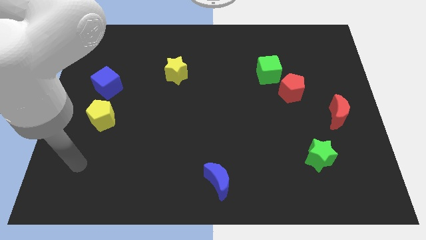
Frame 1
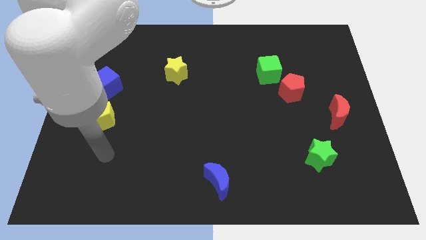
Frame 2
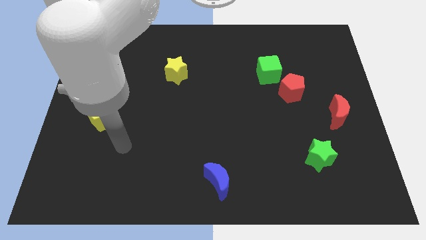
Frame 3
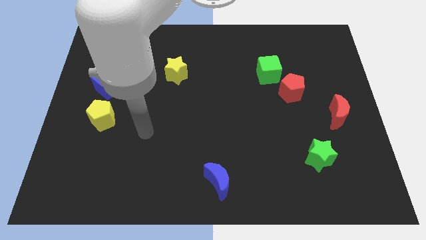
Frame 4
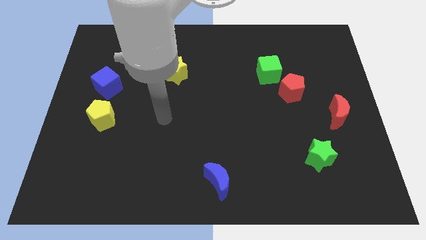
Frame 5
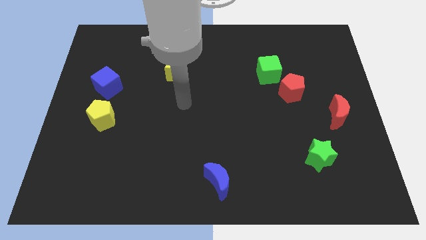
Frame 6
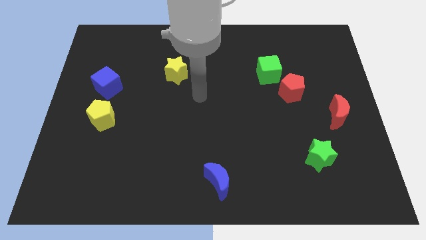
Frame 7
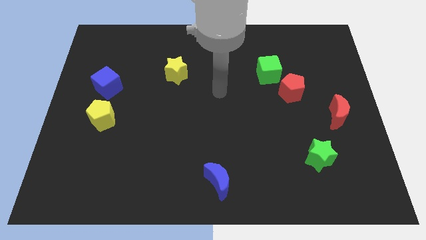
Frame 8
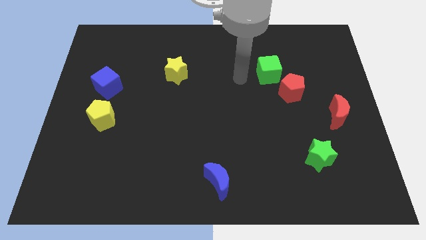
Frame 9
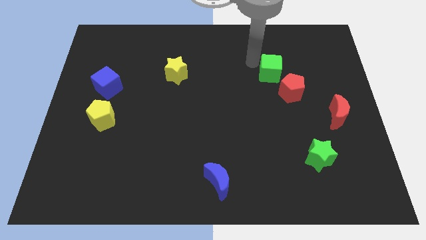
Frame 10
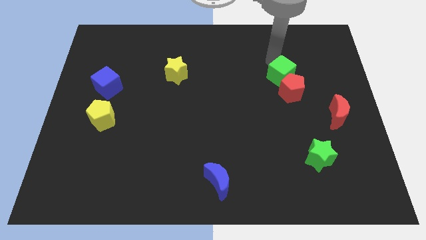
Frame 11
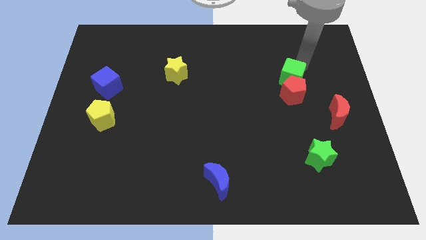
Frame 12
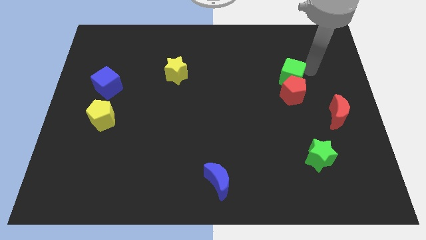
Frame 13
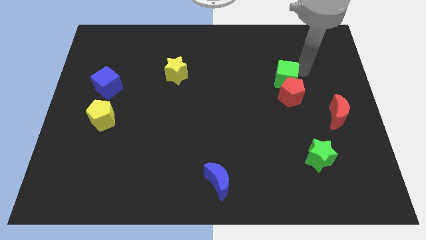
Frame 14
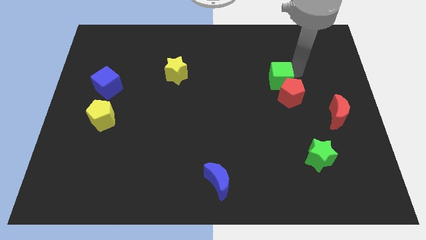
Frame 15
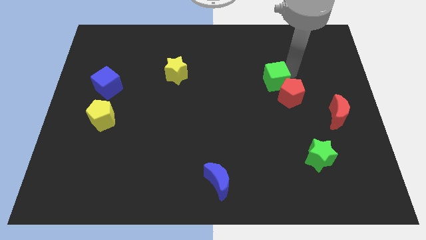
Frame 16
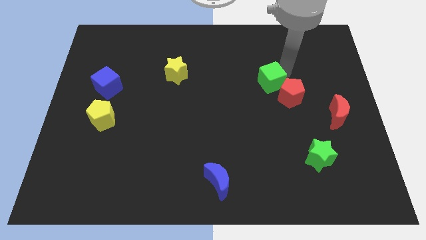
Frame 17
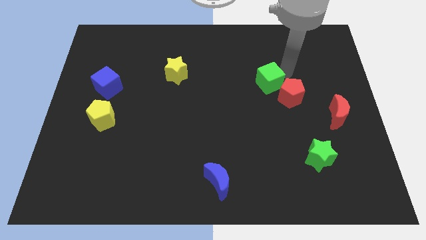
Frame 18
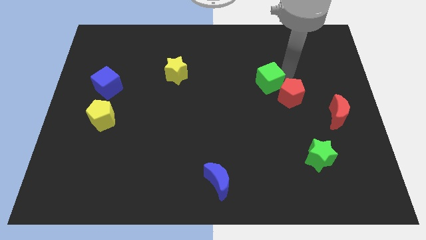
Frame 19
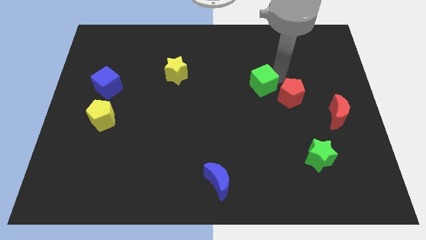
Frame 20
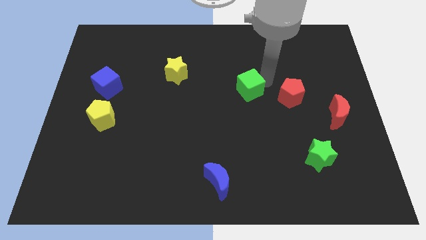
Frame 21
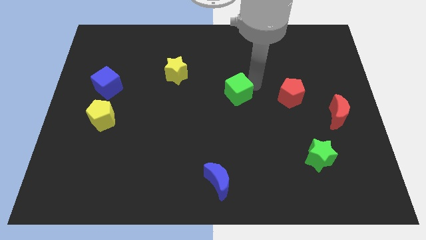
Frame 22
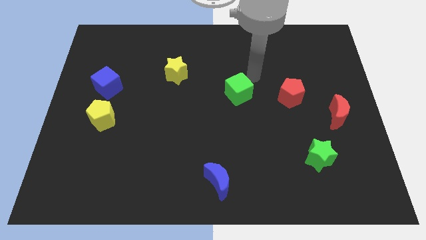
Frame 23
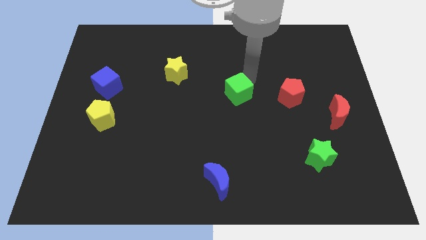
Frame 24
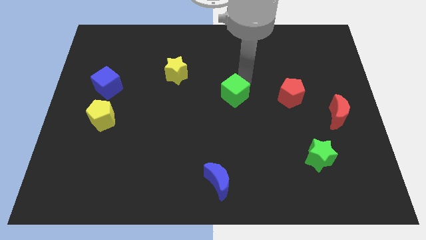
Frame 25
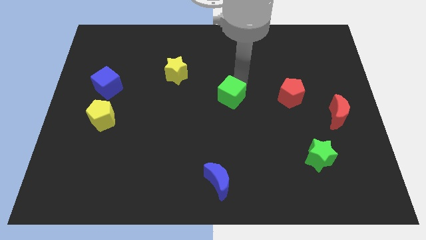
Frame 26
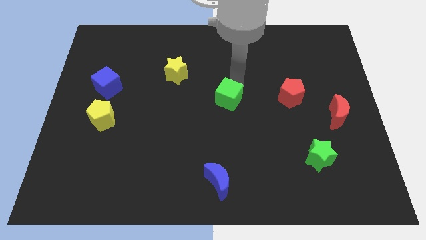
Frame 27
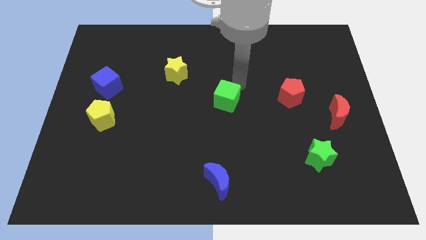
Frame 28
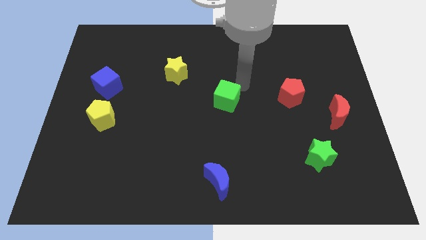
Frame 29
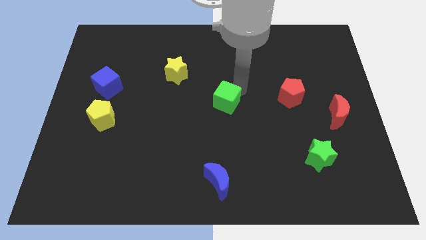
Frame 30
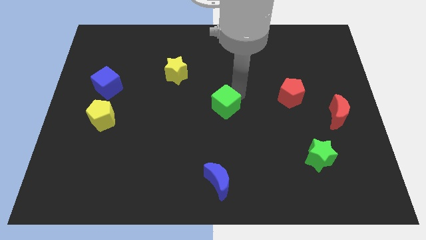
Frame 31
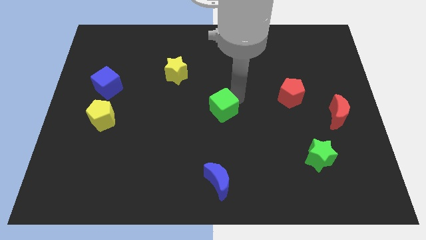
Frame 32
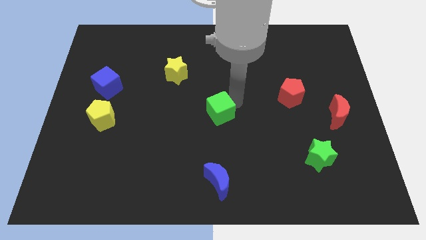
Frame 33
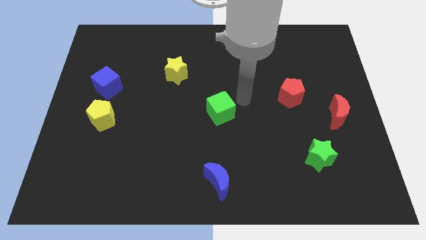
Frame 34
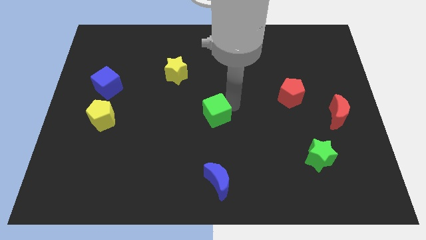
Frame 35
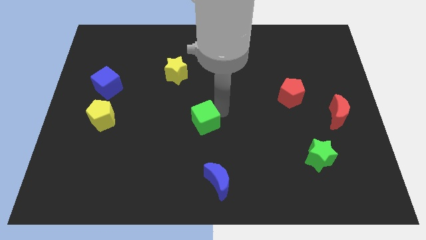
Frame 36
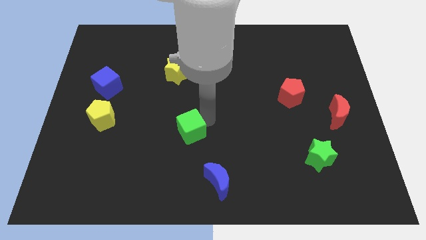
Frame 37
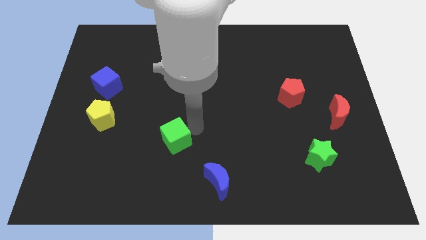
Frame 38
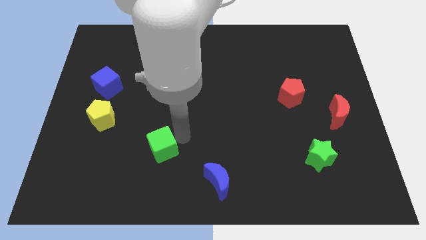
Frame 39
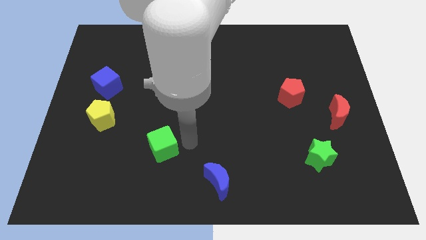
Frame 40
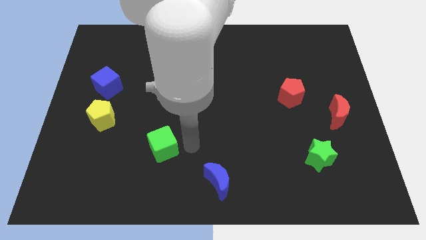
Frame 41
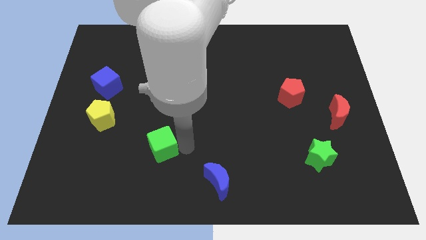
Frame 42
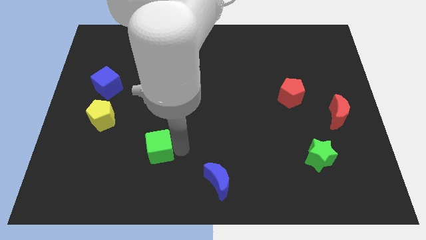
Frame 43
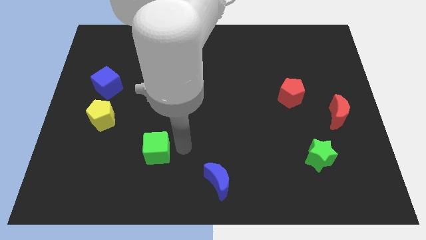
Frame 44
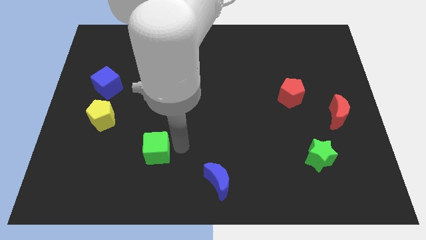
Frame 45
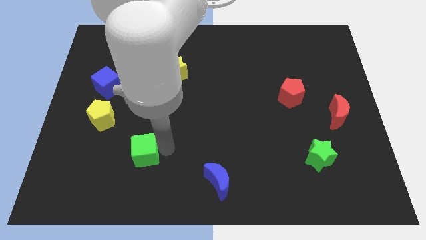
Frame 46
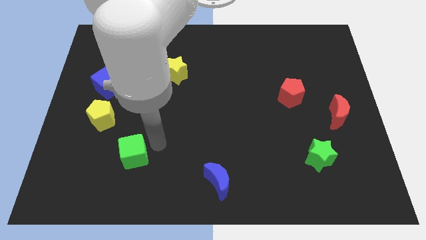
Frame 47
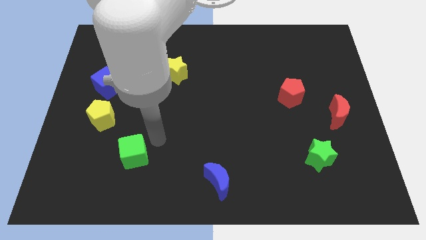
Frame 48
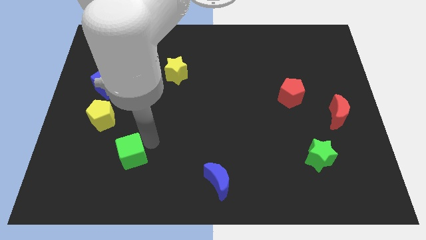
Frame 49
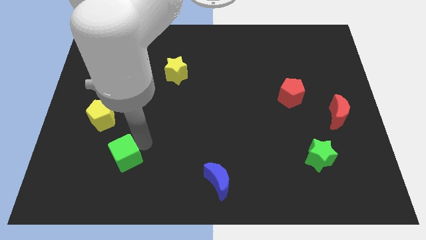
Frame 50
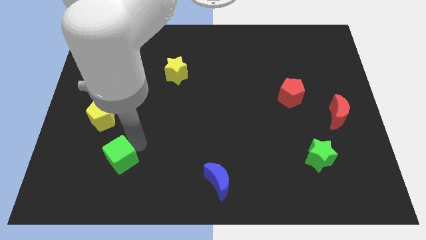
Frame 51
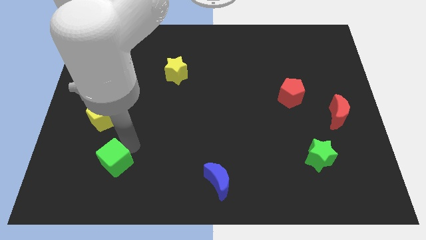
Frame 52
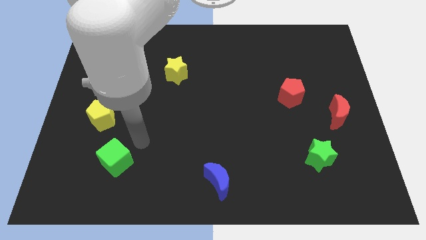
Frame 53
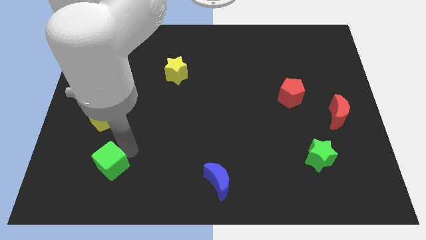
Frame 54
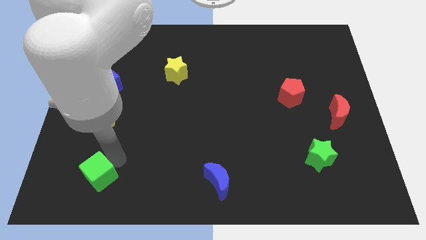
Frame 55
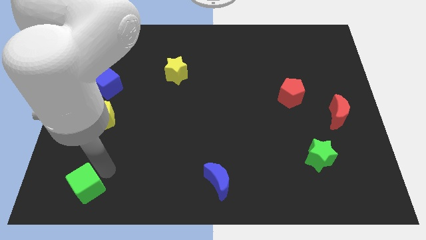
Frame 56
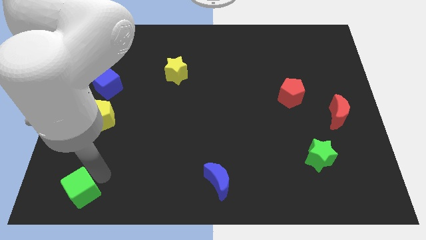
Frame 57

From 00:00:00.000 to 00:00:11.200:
slide the green cube to the bottom left corner

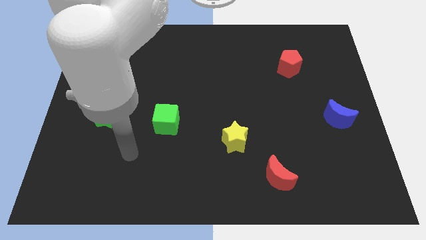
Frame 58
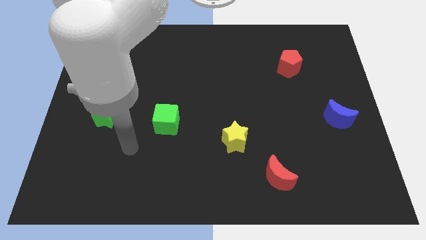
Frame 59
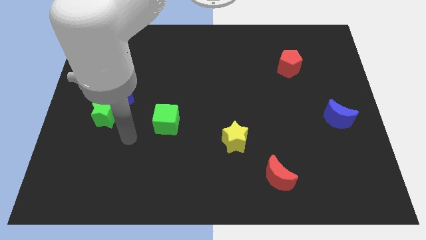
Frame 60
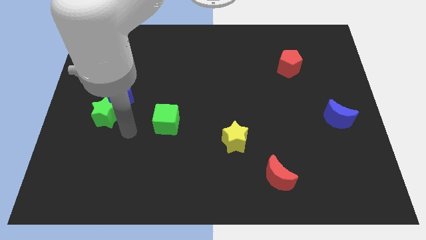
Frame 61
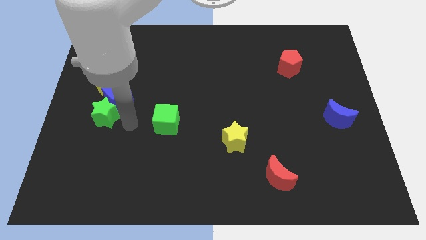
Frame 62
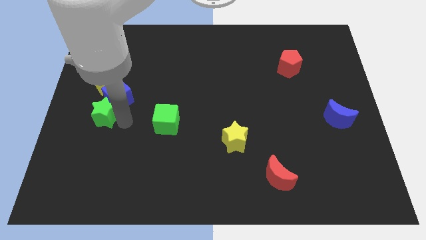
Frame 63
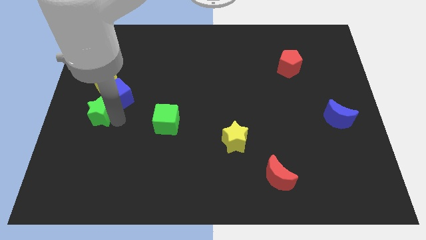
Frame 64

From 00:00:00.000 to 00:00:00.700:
slide the green star to the center left
